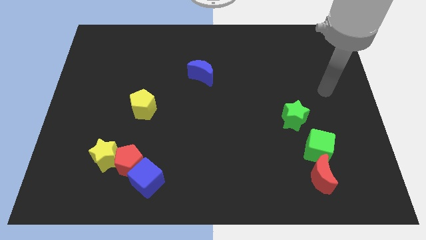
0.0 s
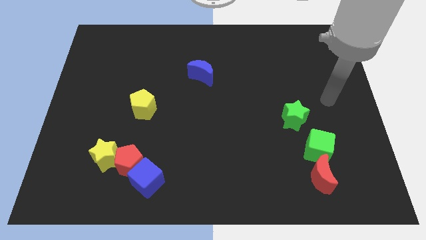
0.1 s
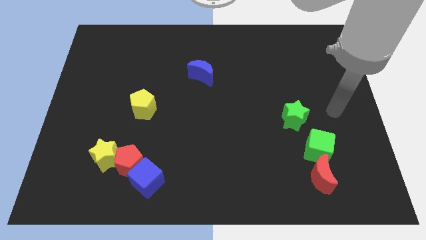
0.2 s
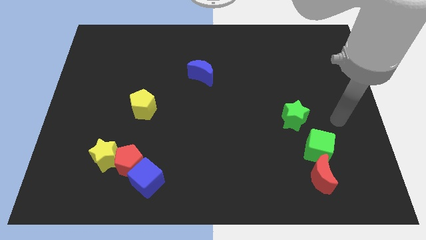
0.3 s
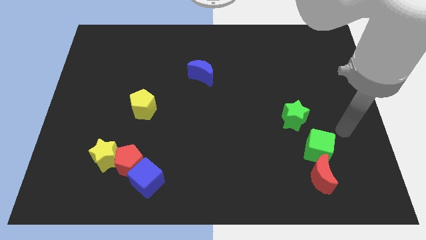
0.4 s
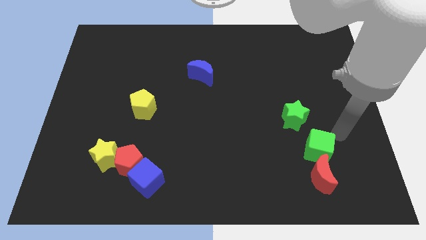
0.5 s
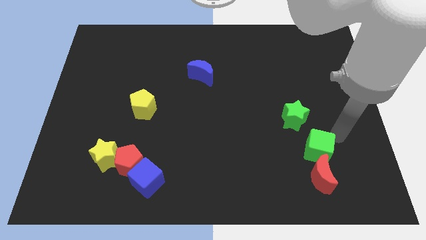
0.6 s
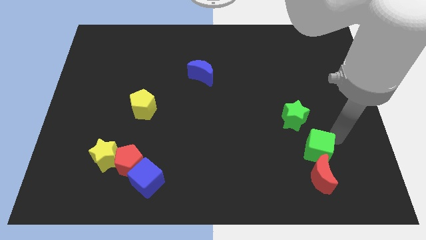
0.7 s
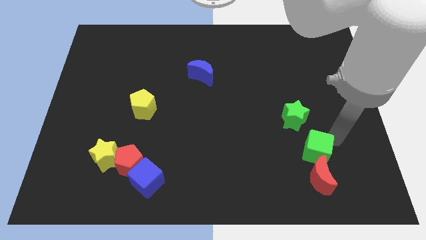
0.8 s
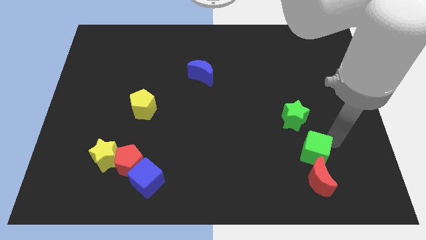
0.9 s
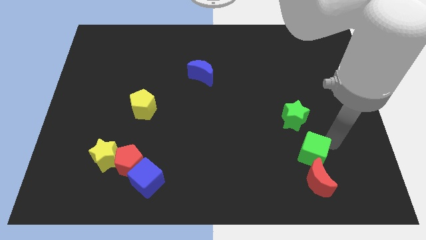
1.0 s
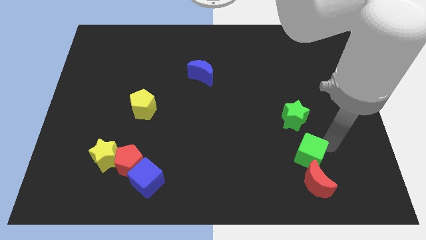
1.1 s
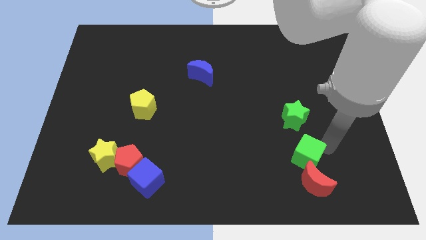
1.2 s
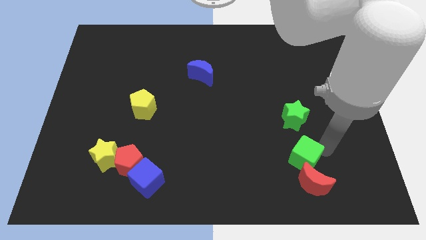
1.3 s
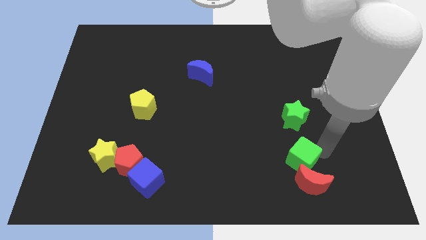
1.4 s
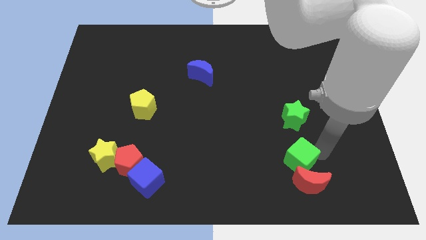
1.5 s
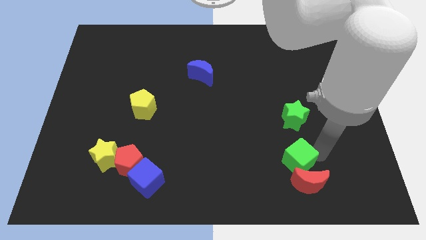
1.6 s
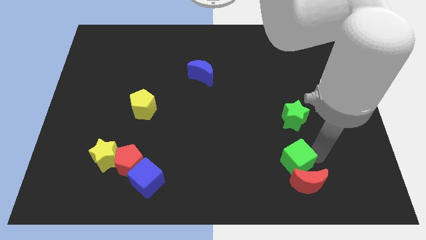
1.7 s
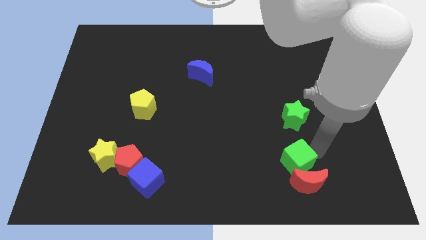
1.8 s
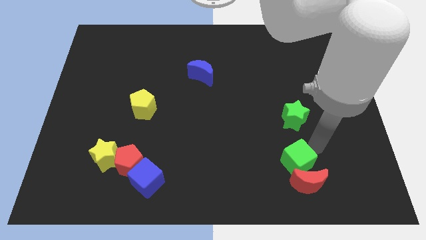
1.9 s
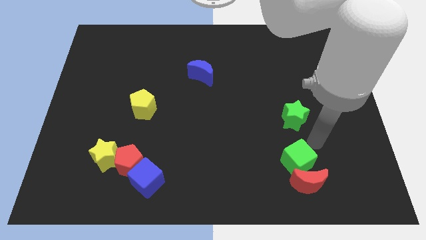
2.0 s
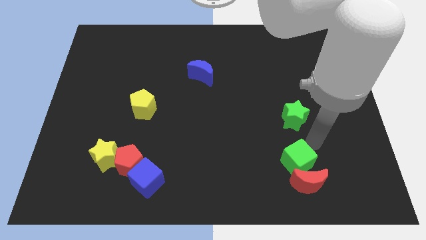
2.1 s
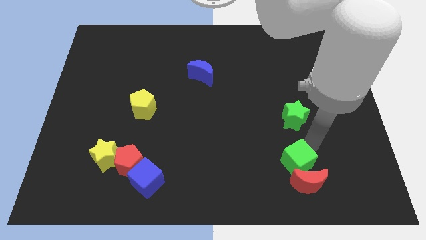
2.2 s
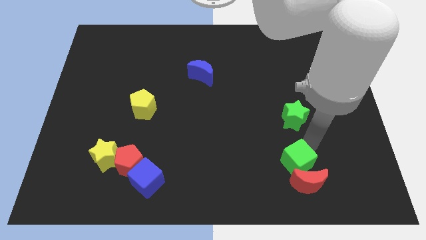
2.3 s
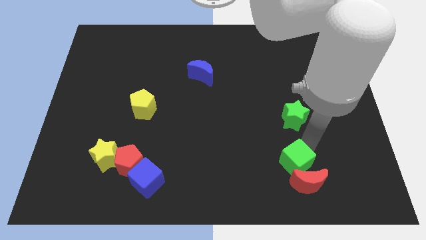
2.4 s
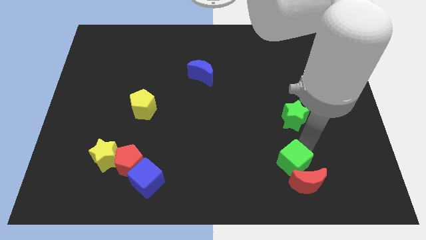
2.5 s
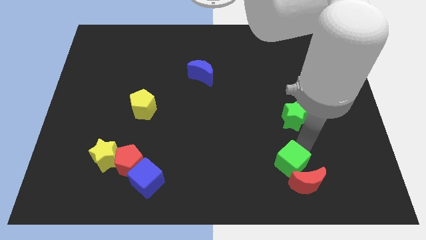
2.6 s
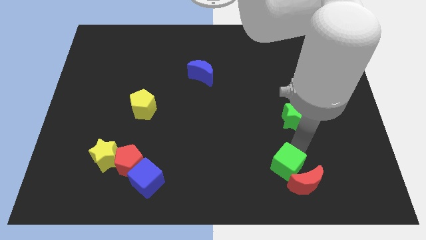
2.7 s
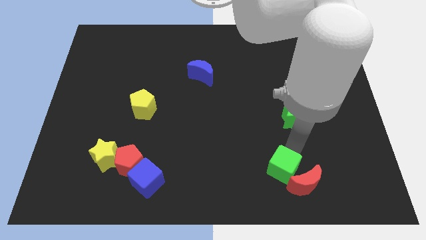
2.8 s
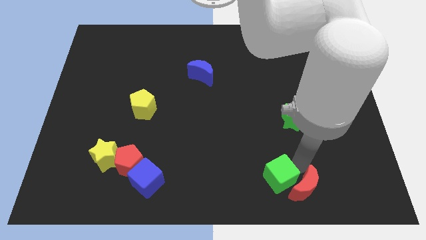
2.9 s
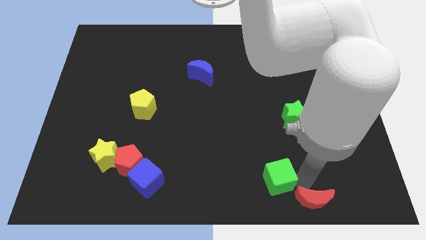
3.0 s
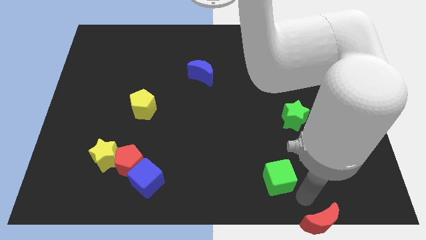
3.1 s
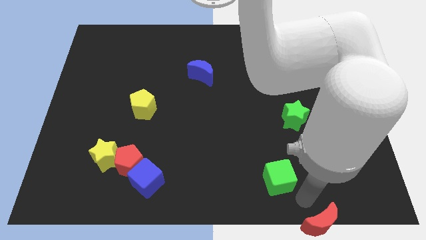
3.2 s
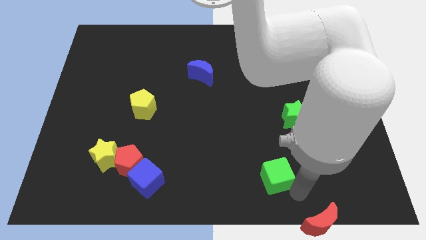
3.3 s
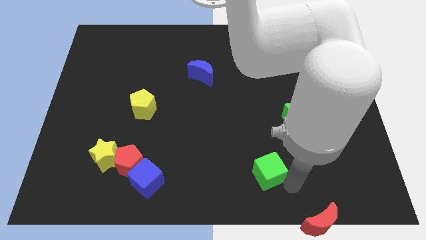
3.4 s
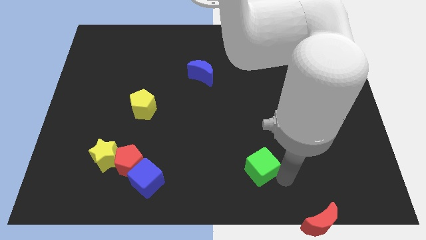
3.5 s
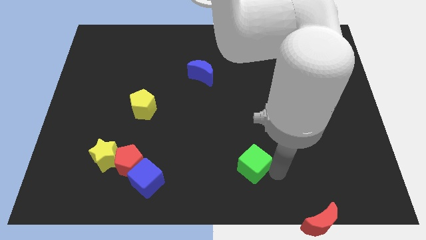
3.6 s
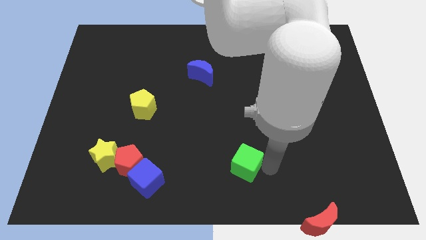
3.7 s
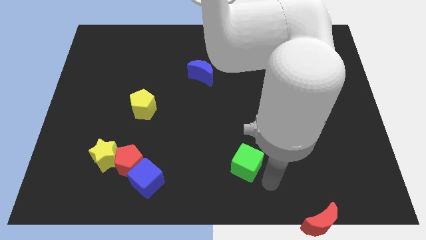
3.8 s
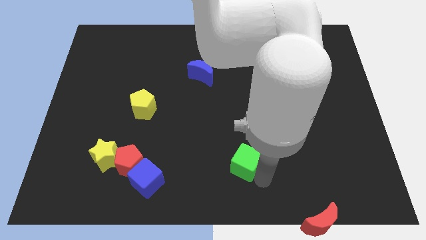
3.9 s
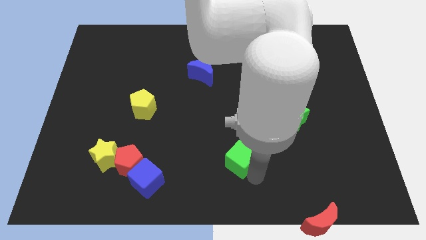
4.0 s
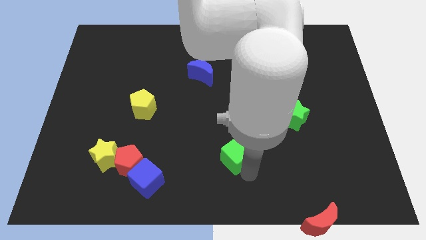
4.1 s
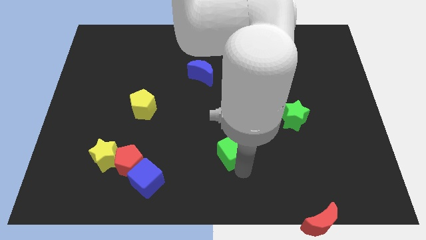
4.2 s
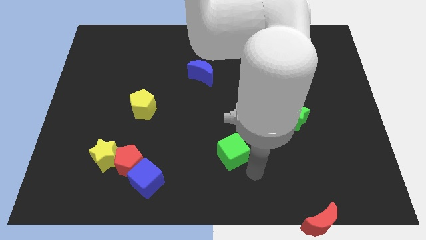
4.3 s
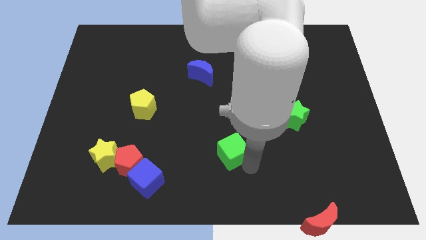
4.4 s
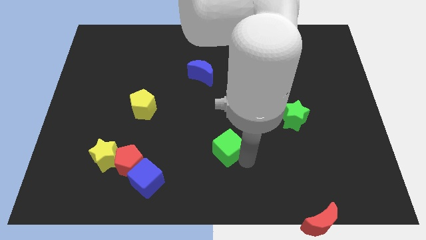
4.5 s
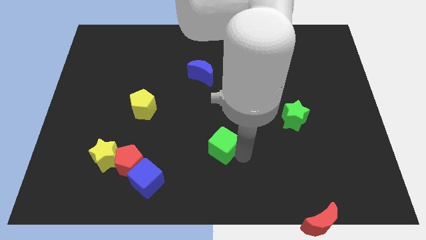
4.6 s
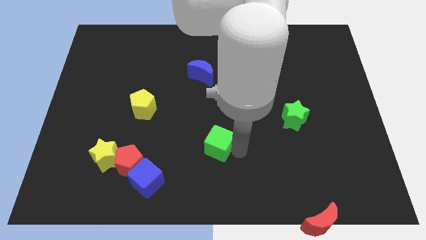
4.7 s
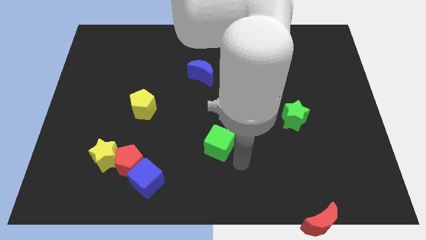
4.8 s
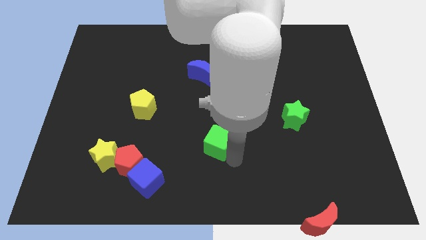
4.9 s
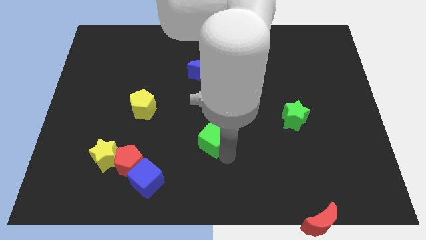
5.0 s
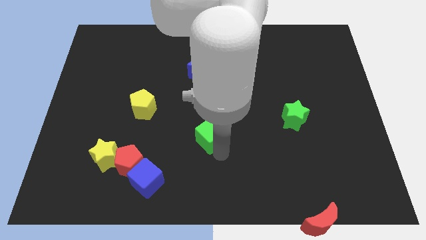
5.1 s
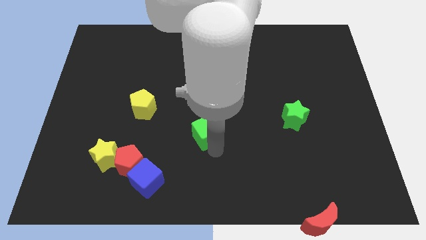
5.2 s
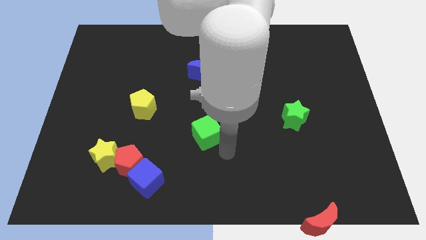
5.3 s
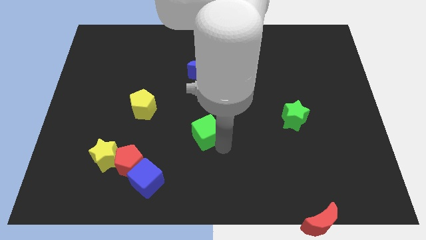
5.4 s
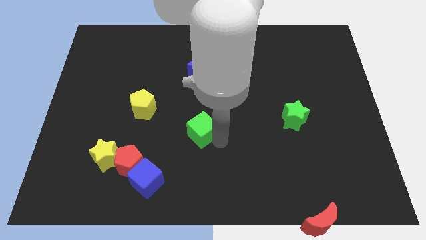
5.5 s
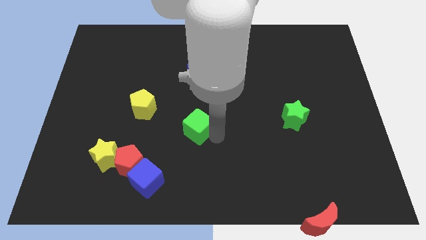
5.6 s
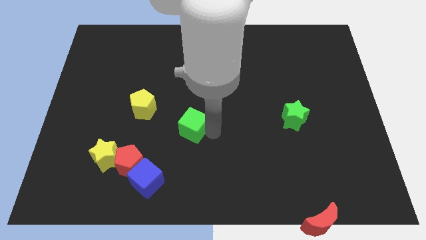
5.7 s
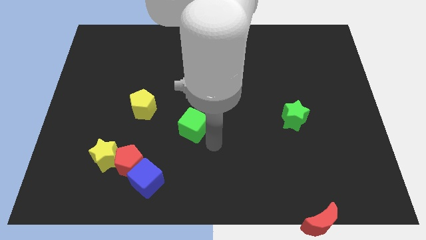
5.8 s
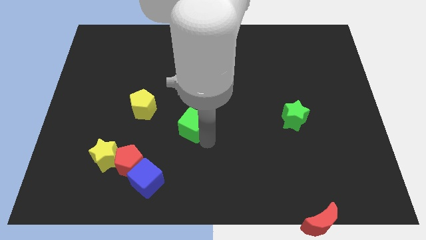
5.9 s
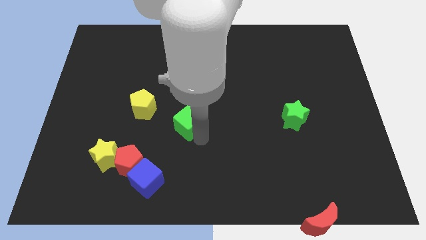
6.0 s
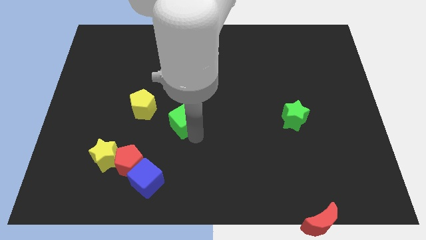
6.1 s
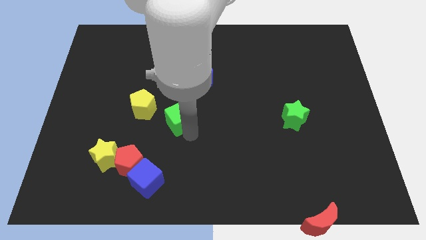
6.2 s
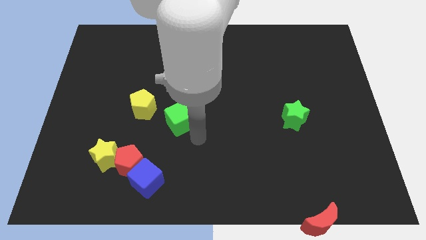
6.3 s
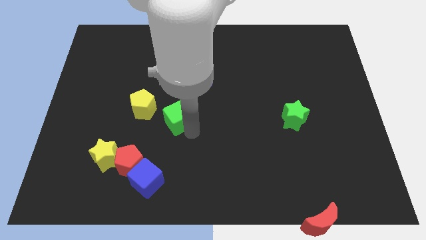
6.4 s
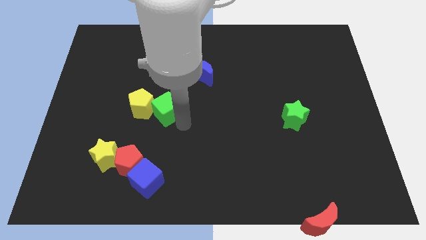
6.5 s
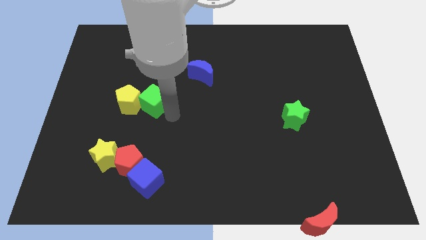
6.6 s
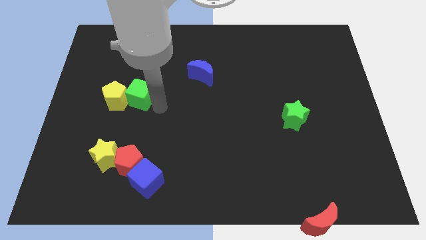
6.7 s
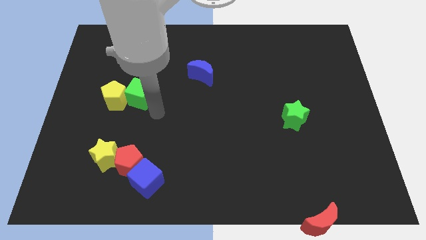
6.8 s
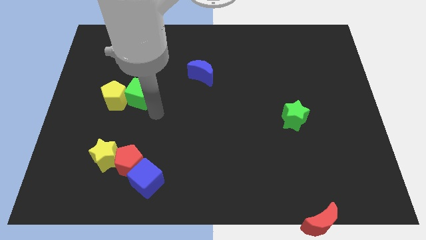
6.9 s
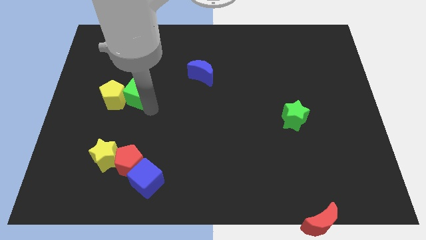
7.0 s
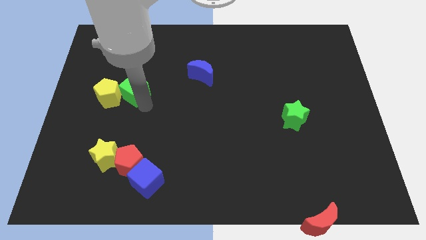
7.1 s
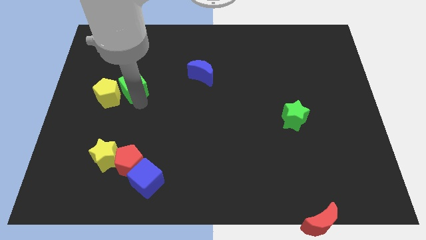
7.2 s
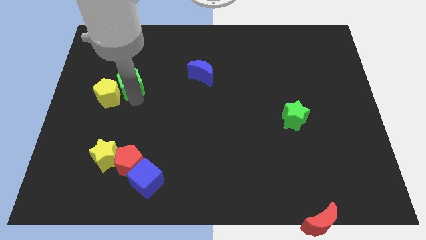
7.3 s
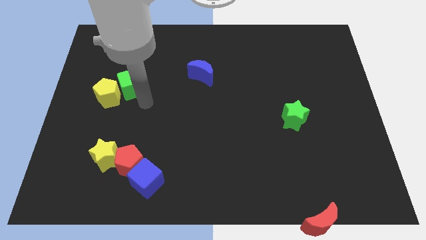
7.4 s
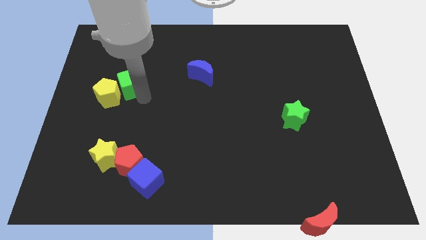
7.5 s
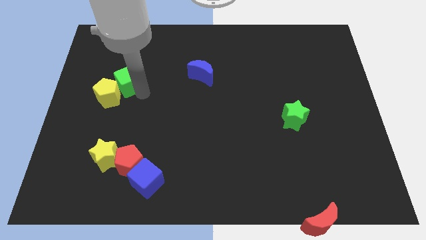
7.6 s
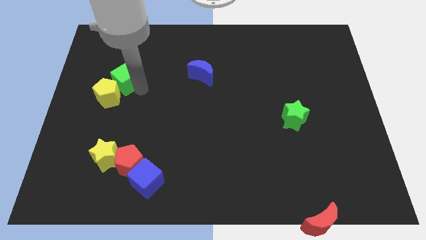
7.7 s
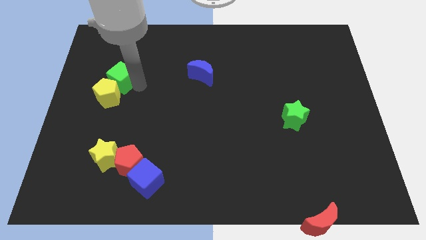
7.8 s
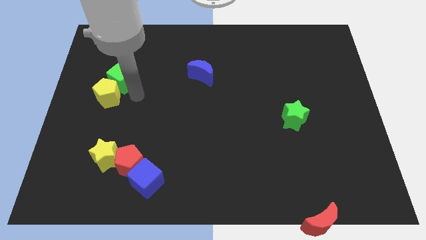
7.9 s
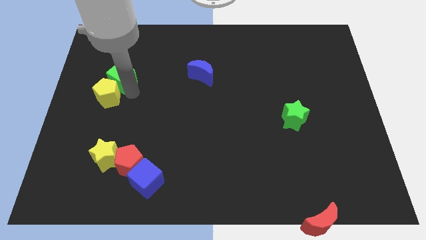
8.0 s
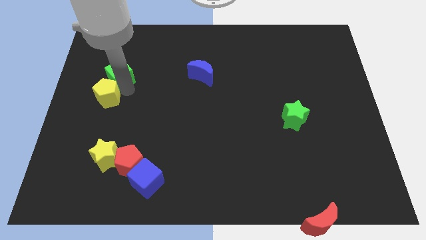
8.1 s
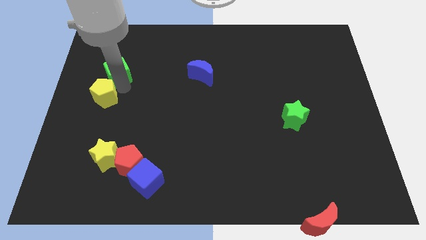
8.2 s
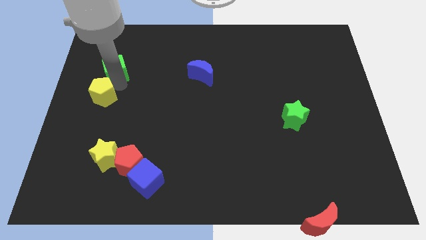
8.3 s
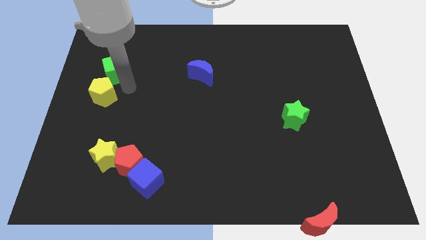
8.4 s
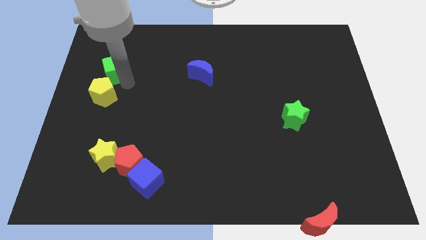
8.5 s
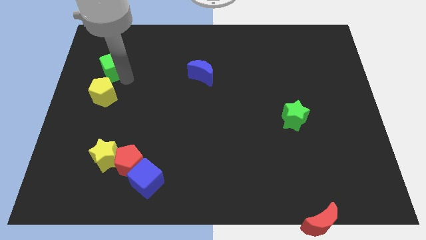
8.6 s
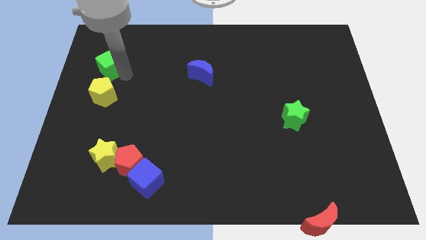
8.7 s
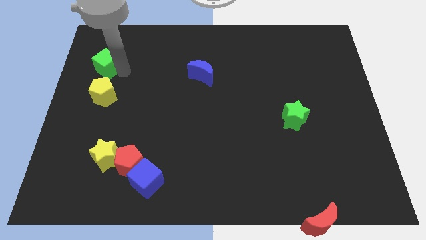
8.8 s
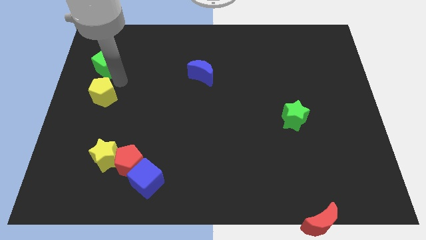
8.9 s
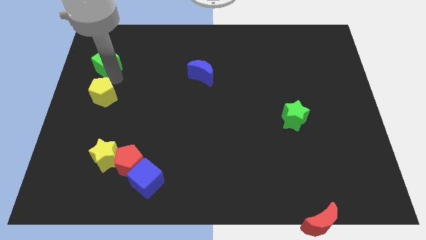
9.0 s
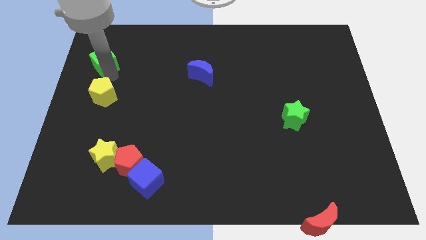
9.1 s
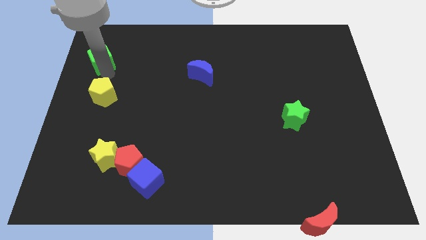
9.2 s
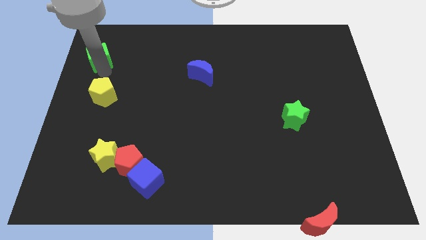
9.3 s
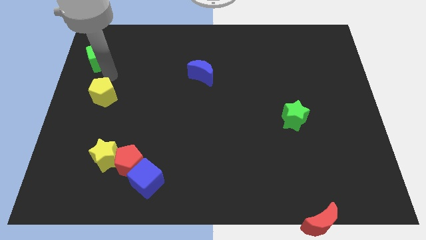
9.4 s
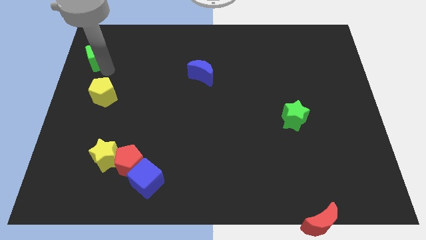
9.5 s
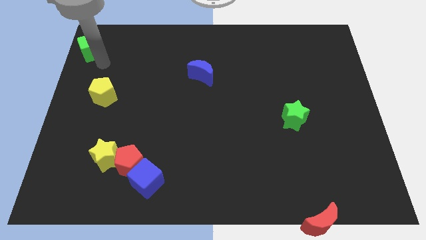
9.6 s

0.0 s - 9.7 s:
push the green cube to the upper left corner
